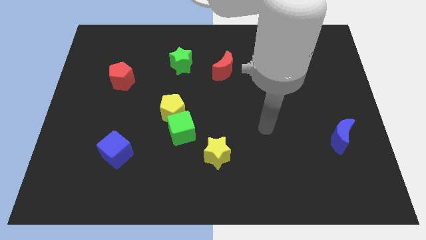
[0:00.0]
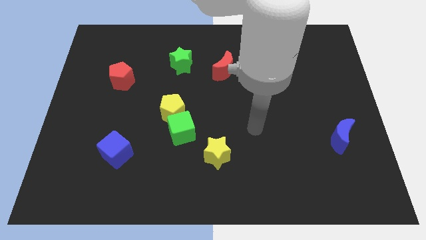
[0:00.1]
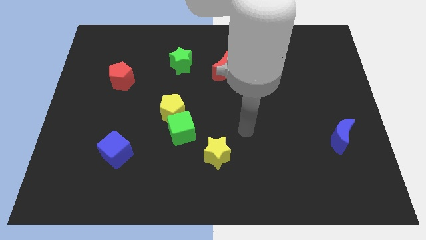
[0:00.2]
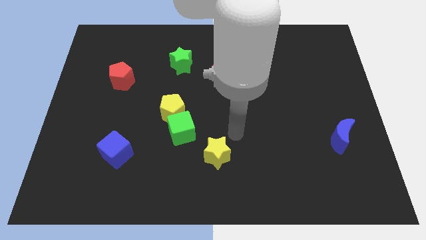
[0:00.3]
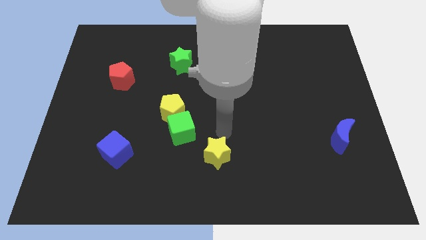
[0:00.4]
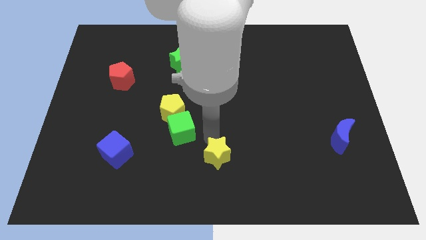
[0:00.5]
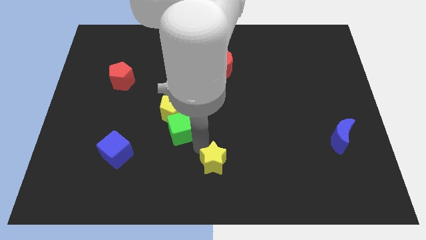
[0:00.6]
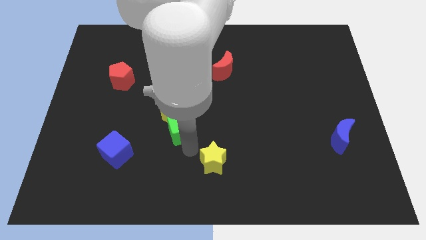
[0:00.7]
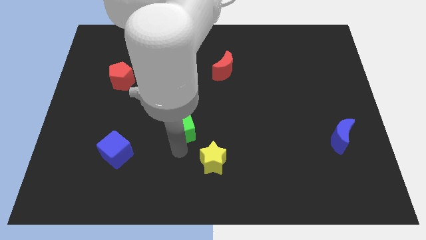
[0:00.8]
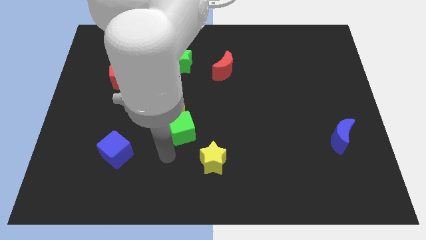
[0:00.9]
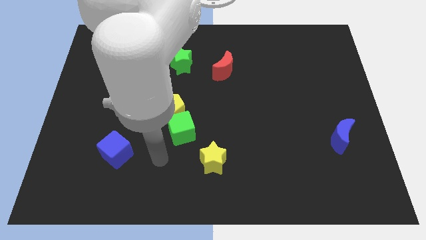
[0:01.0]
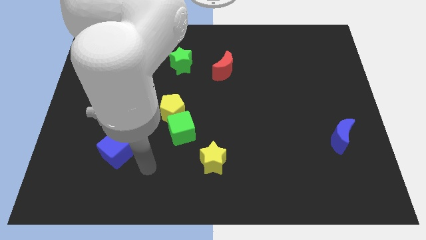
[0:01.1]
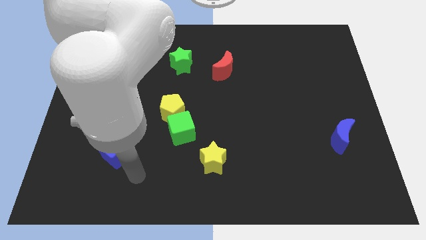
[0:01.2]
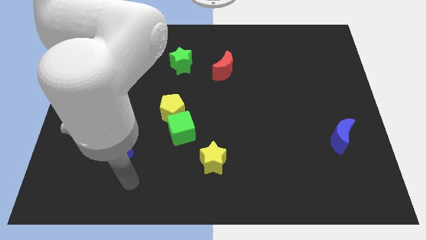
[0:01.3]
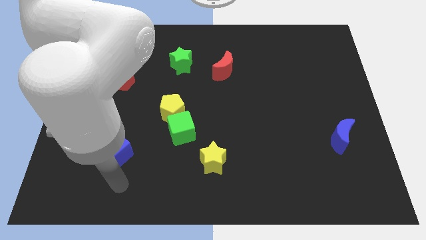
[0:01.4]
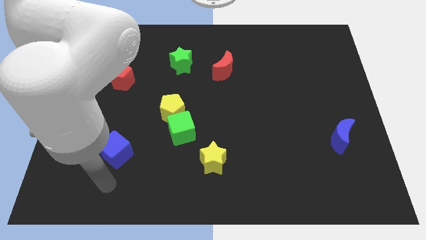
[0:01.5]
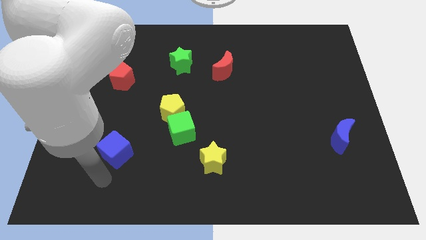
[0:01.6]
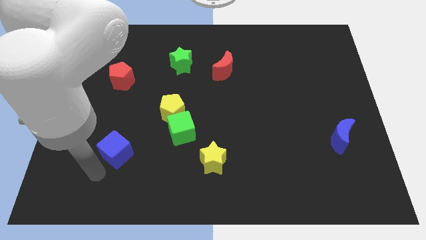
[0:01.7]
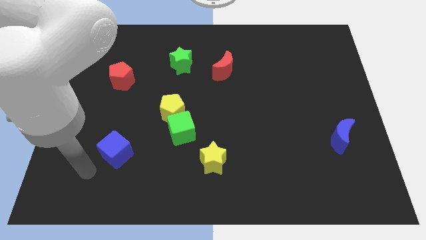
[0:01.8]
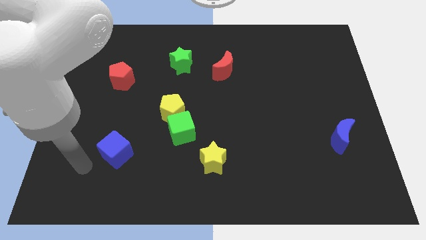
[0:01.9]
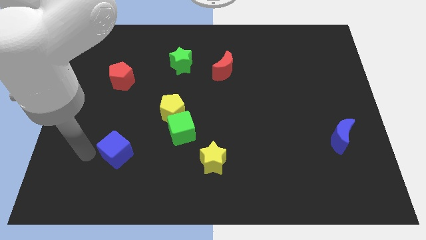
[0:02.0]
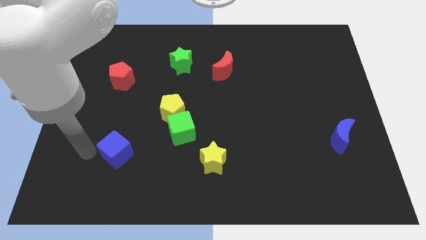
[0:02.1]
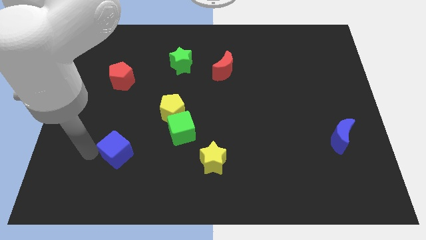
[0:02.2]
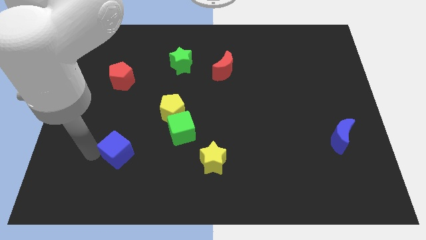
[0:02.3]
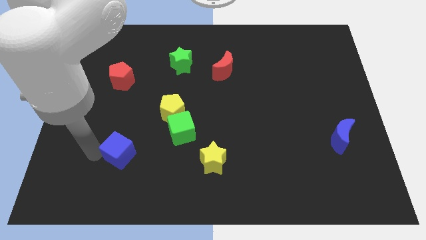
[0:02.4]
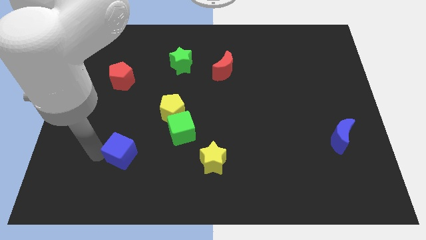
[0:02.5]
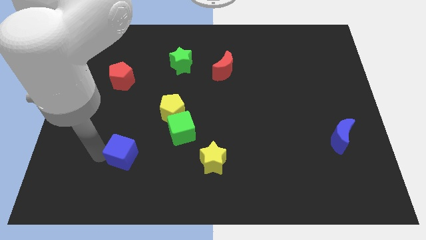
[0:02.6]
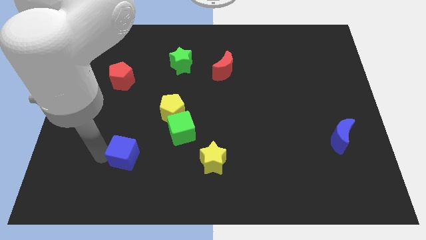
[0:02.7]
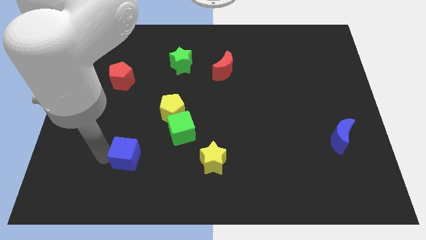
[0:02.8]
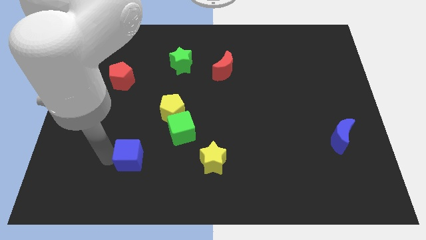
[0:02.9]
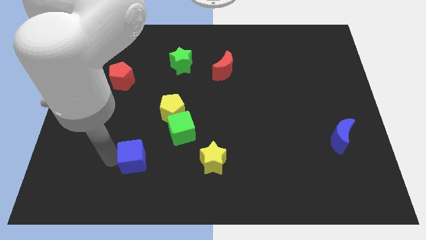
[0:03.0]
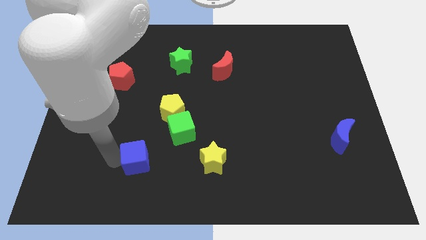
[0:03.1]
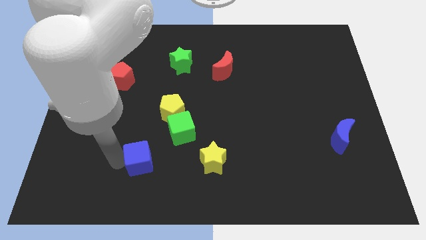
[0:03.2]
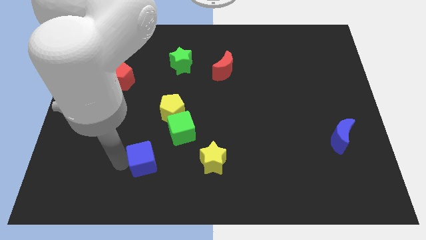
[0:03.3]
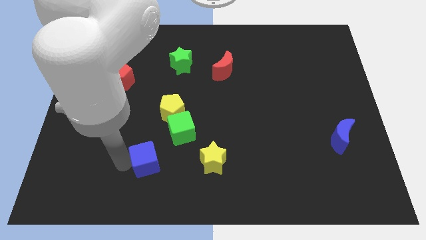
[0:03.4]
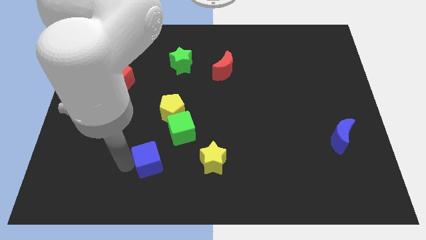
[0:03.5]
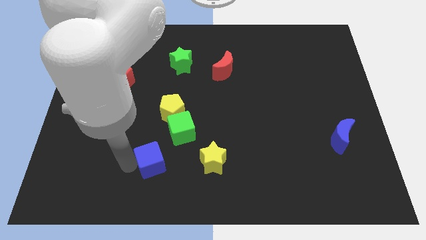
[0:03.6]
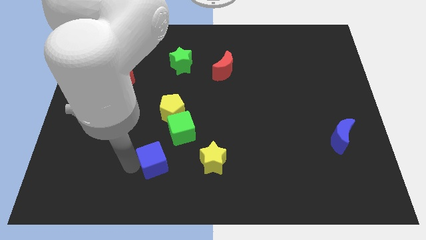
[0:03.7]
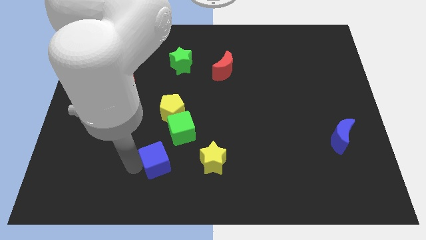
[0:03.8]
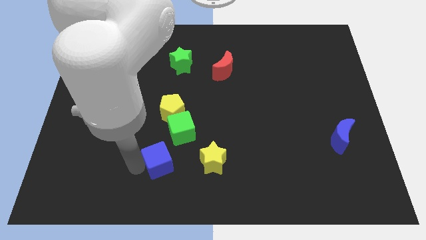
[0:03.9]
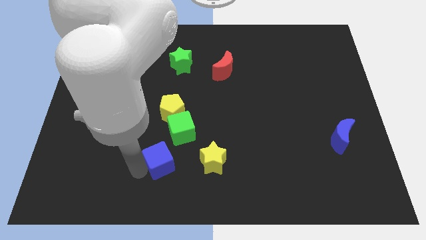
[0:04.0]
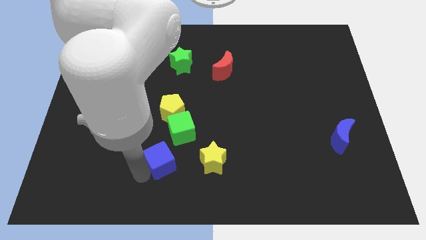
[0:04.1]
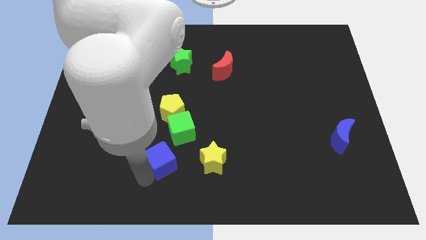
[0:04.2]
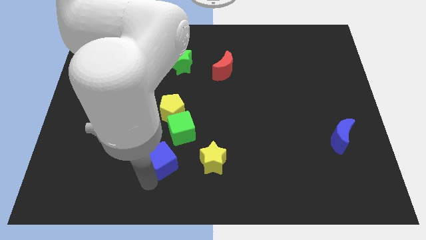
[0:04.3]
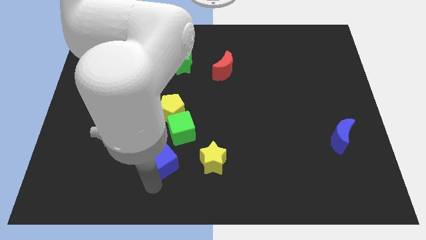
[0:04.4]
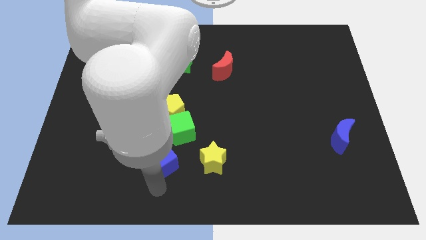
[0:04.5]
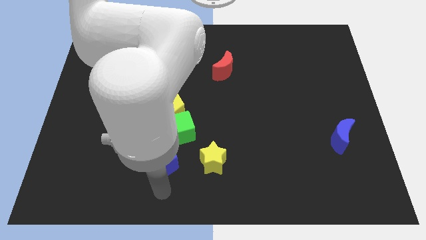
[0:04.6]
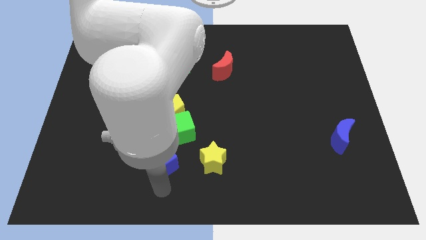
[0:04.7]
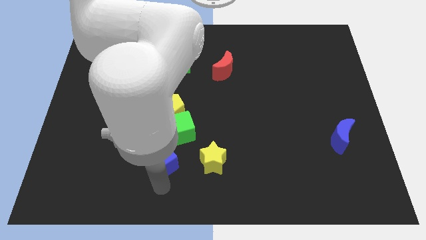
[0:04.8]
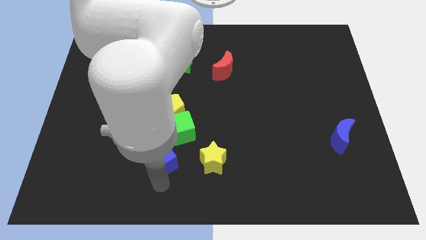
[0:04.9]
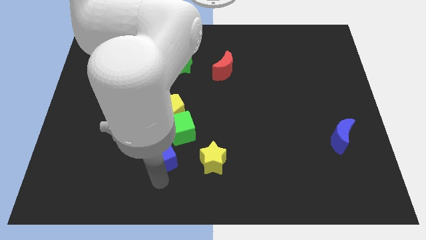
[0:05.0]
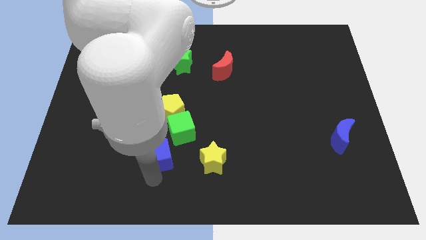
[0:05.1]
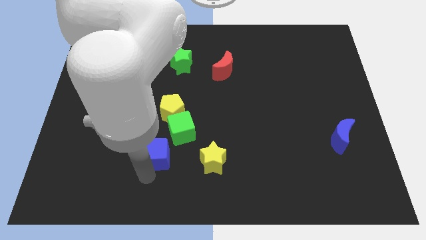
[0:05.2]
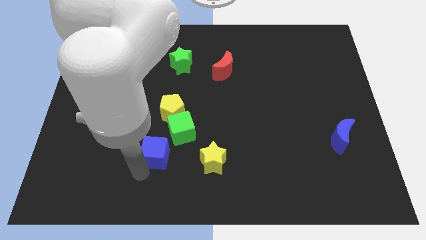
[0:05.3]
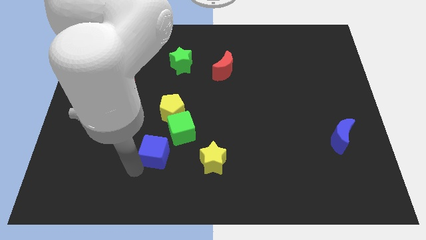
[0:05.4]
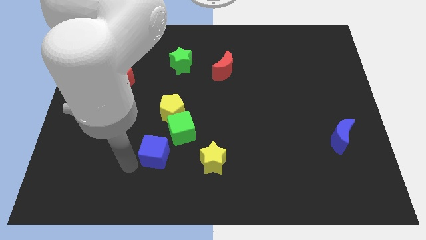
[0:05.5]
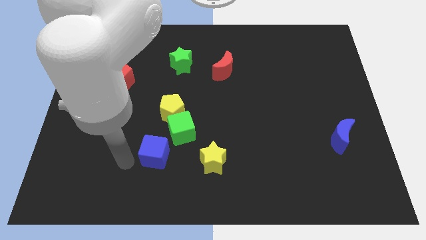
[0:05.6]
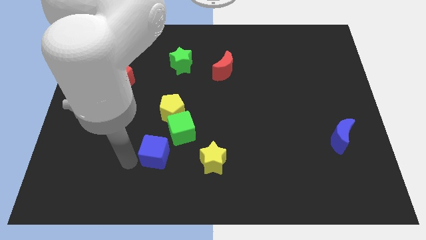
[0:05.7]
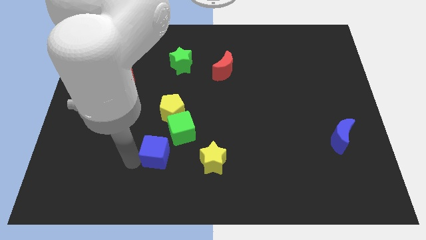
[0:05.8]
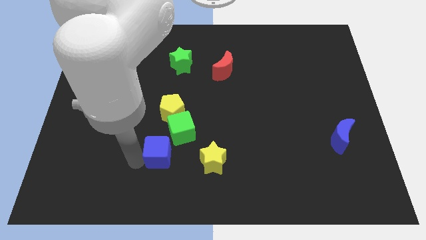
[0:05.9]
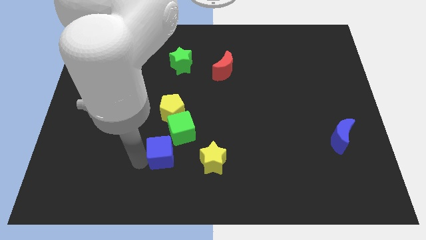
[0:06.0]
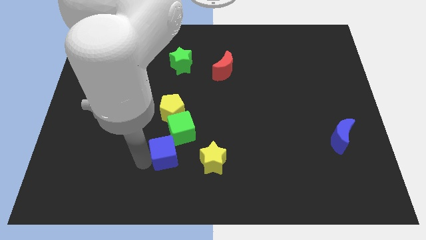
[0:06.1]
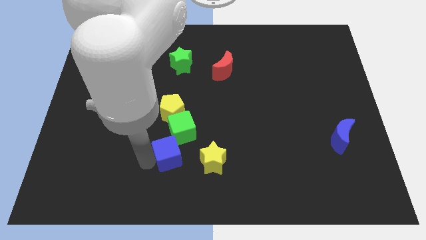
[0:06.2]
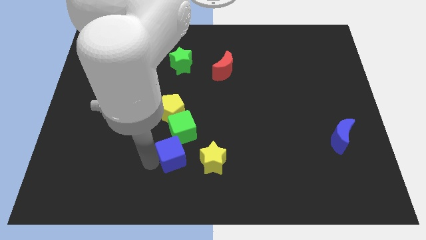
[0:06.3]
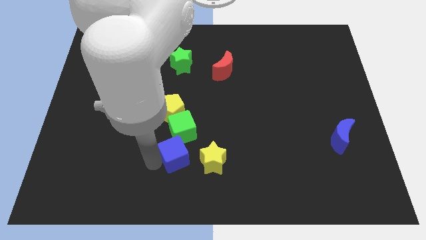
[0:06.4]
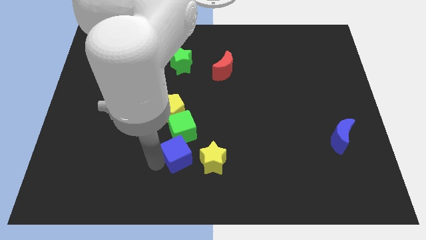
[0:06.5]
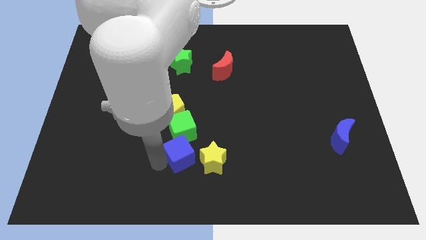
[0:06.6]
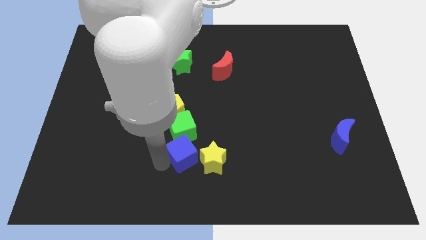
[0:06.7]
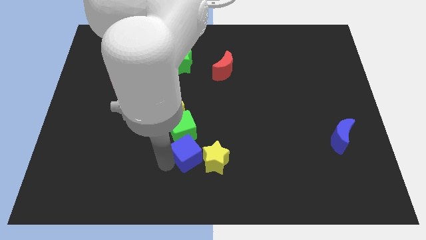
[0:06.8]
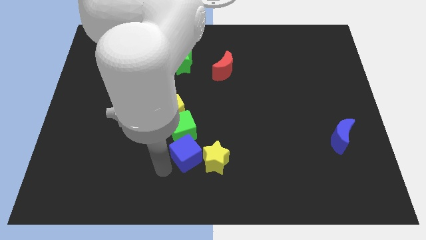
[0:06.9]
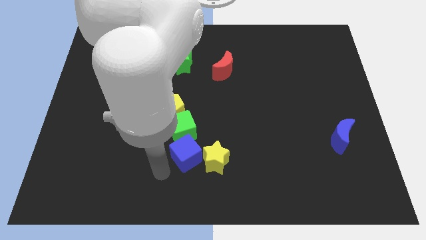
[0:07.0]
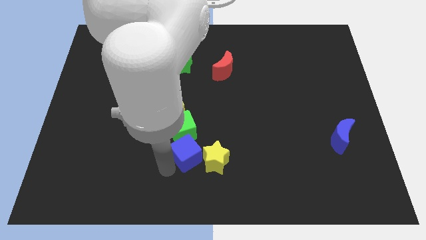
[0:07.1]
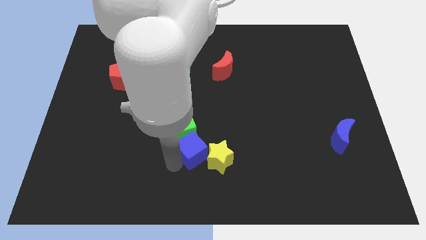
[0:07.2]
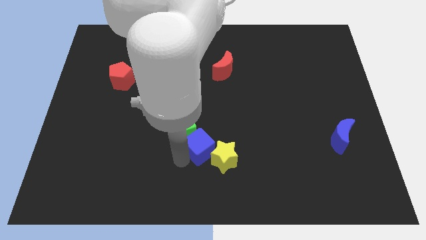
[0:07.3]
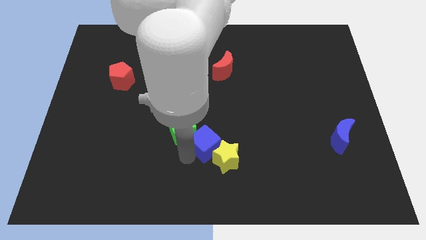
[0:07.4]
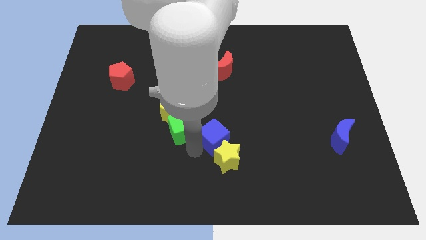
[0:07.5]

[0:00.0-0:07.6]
move the blue cube to the right

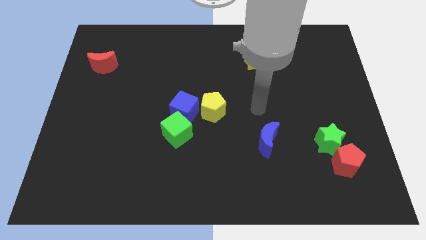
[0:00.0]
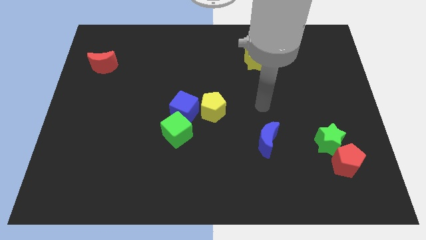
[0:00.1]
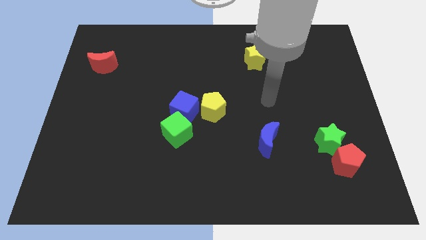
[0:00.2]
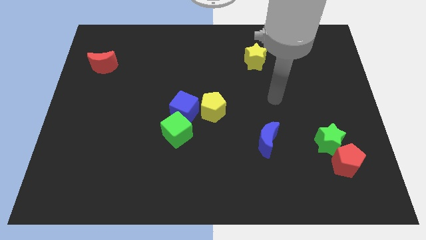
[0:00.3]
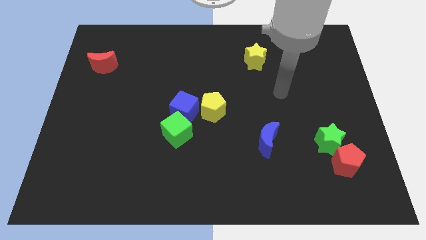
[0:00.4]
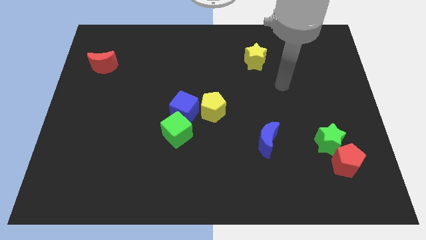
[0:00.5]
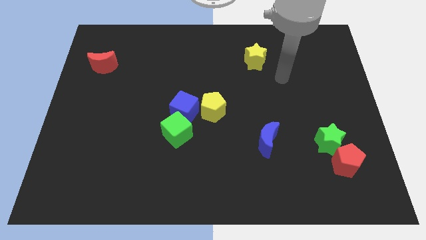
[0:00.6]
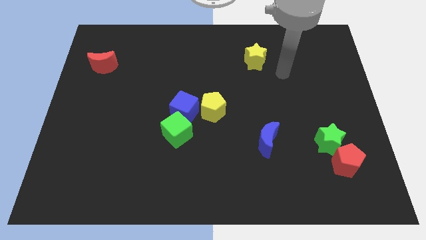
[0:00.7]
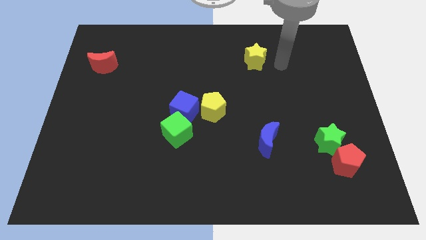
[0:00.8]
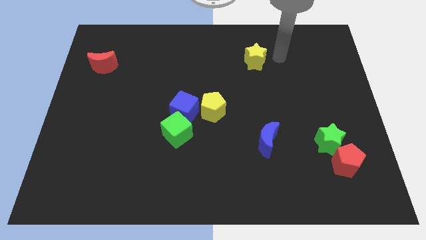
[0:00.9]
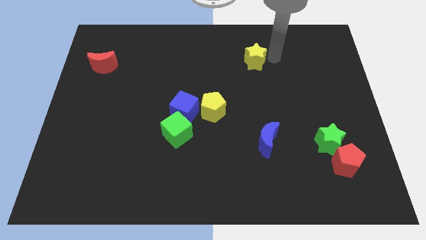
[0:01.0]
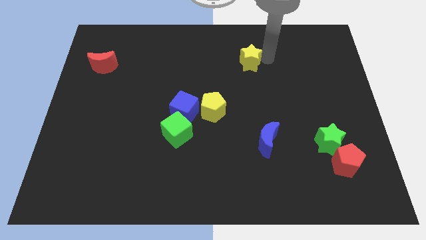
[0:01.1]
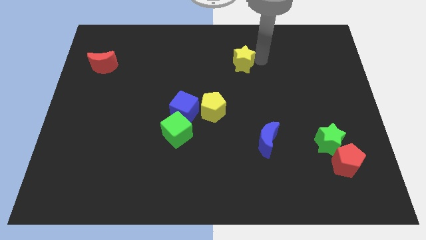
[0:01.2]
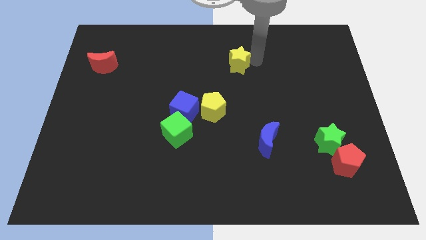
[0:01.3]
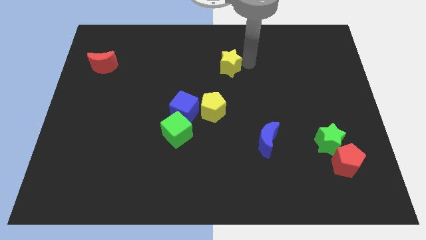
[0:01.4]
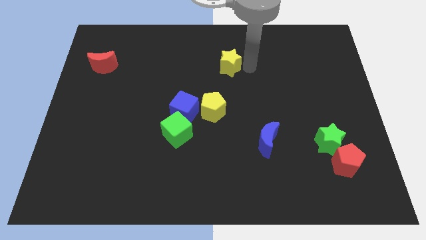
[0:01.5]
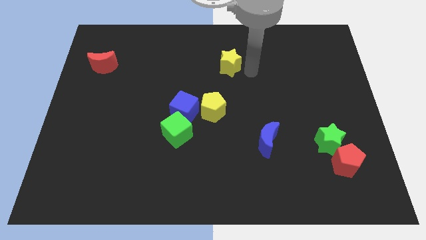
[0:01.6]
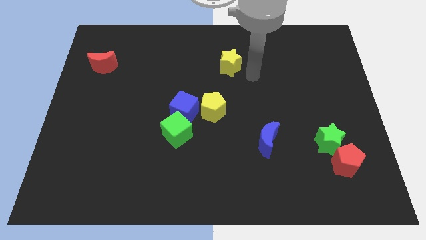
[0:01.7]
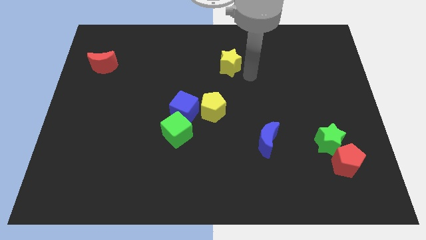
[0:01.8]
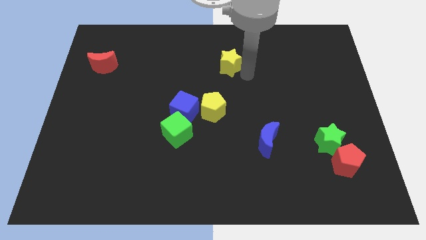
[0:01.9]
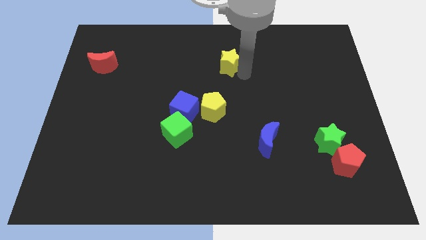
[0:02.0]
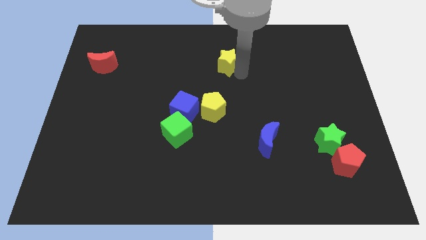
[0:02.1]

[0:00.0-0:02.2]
slightly move the yellow star to the left
